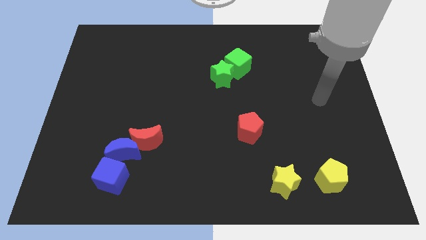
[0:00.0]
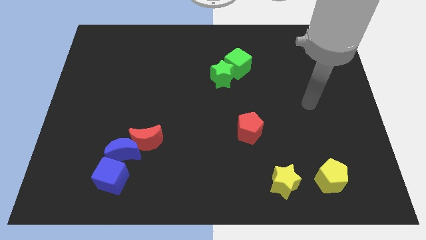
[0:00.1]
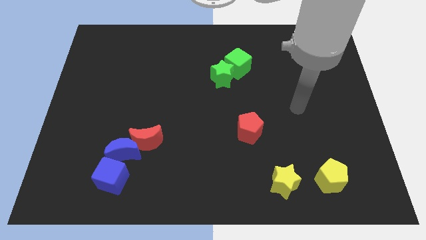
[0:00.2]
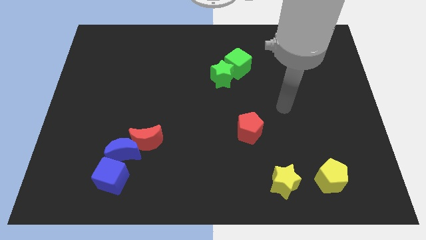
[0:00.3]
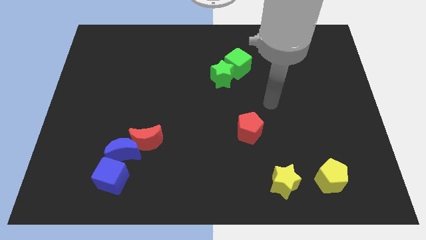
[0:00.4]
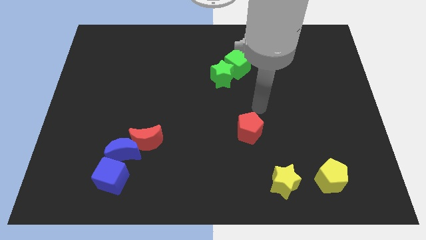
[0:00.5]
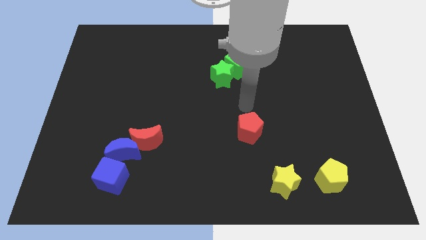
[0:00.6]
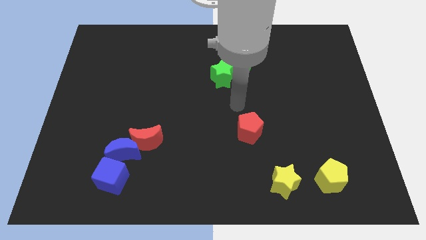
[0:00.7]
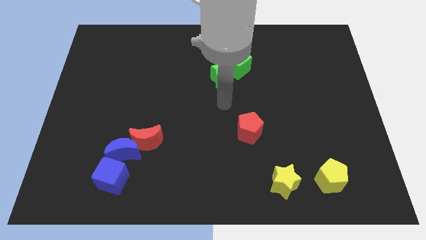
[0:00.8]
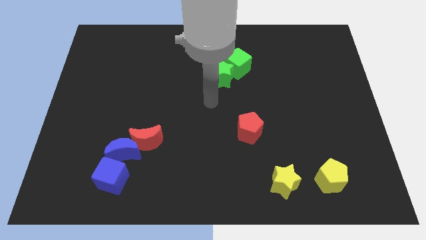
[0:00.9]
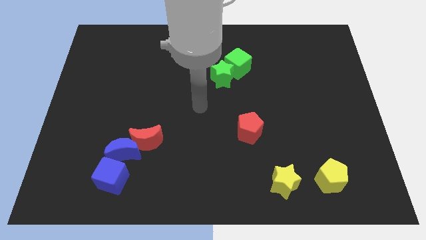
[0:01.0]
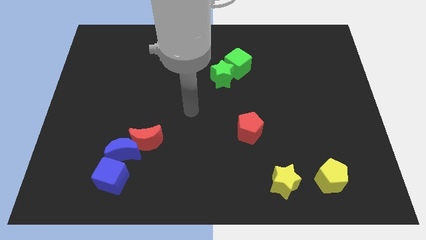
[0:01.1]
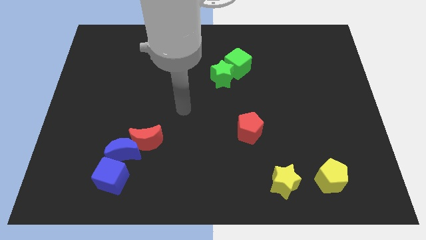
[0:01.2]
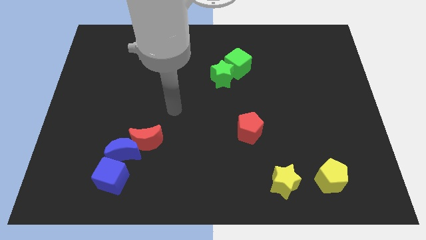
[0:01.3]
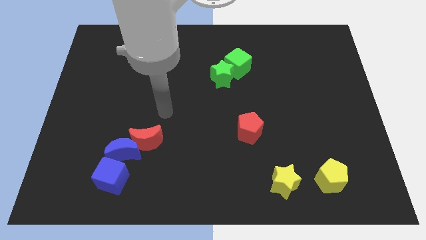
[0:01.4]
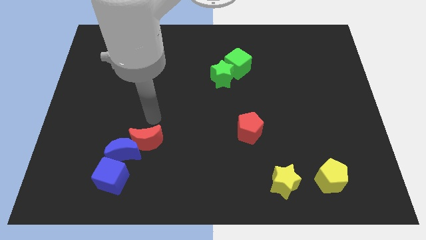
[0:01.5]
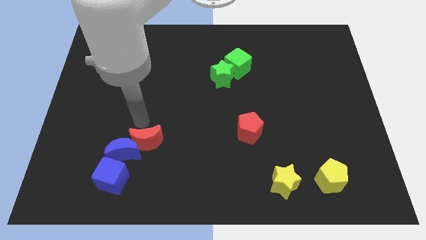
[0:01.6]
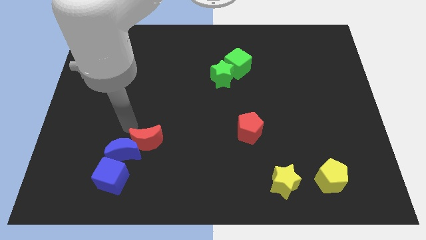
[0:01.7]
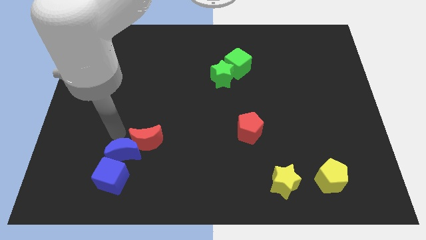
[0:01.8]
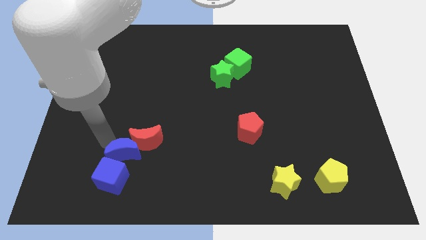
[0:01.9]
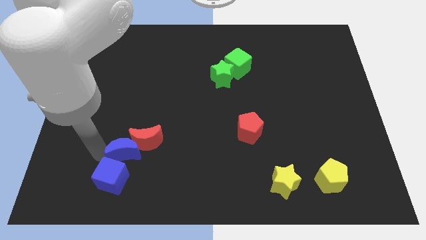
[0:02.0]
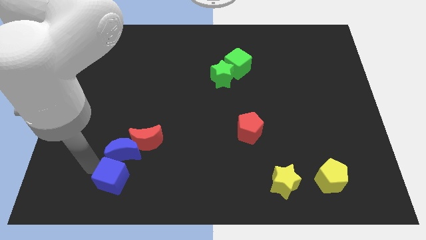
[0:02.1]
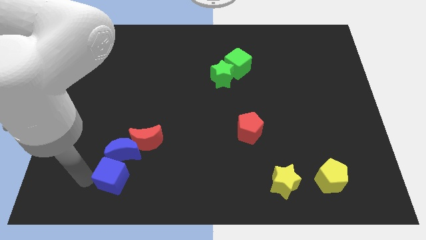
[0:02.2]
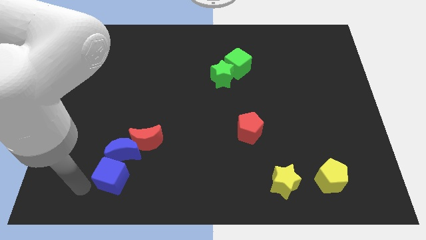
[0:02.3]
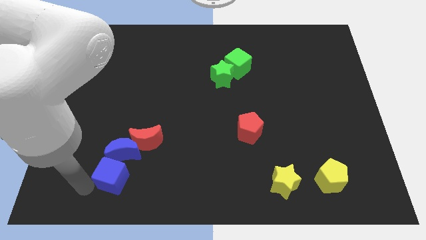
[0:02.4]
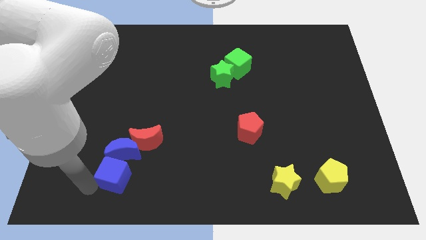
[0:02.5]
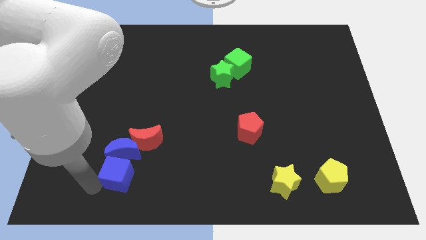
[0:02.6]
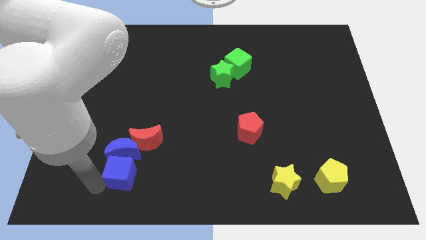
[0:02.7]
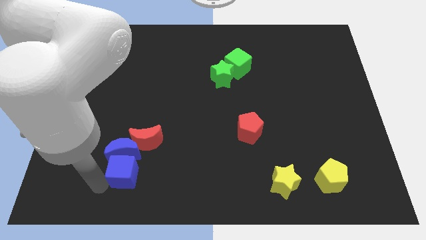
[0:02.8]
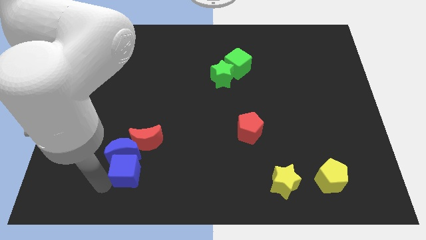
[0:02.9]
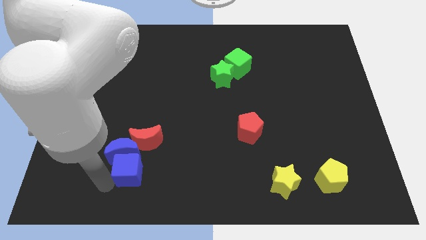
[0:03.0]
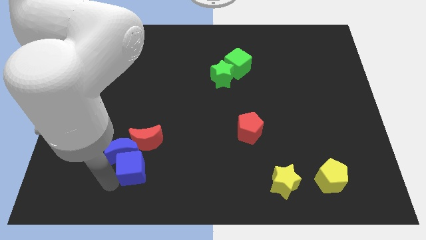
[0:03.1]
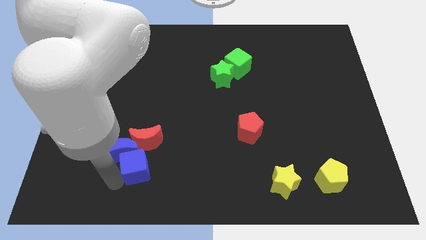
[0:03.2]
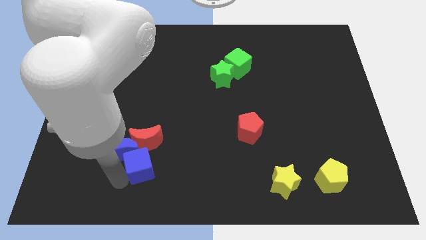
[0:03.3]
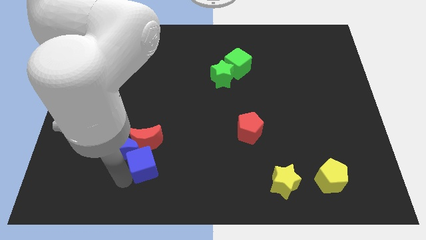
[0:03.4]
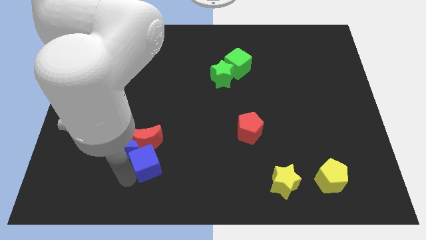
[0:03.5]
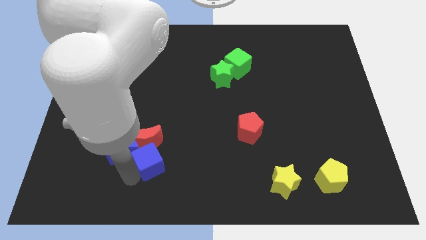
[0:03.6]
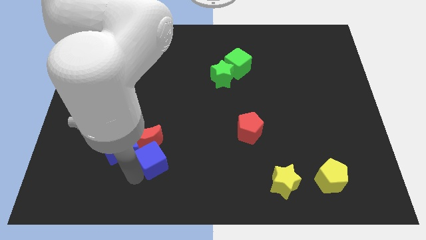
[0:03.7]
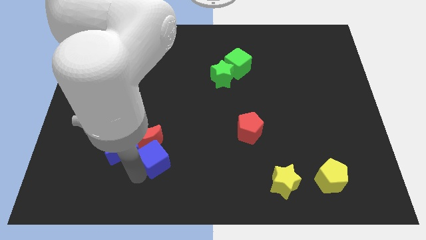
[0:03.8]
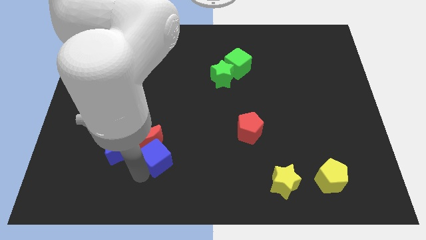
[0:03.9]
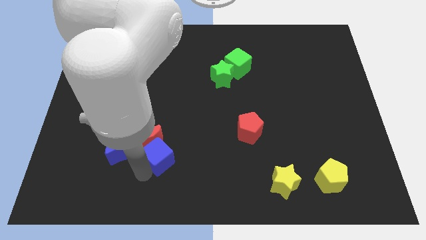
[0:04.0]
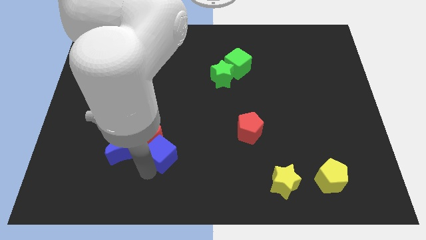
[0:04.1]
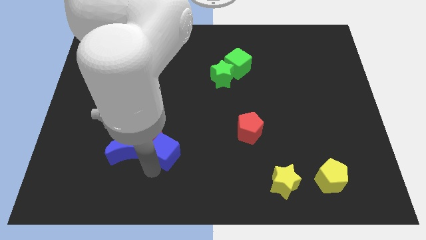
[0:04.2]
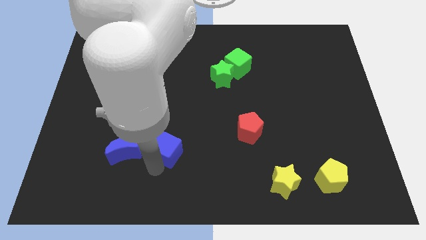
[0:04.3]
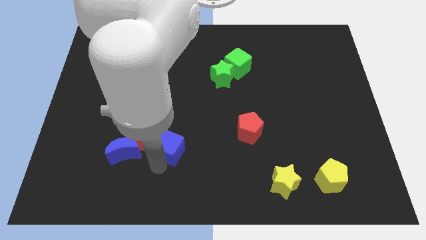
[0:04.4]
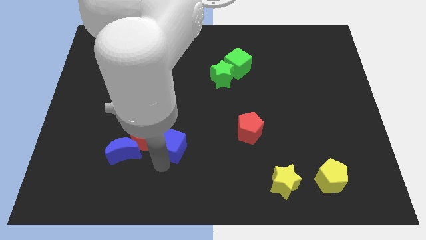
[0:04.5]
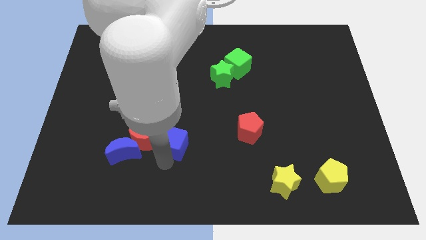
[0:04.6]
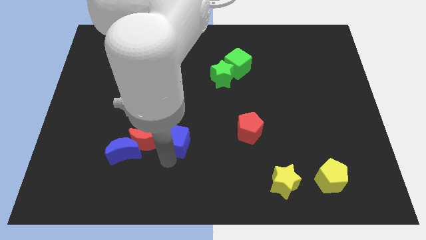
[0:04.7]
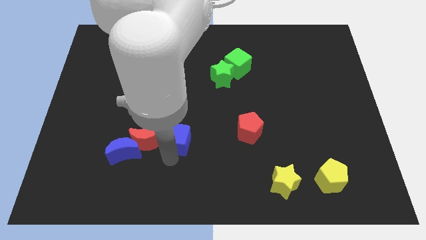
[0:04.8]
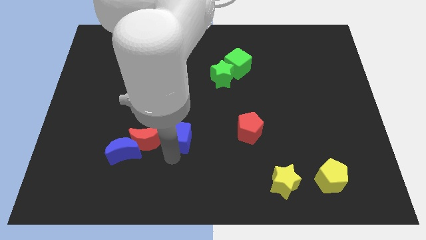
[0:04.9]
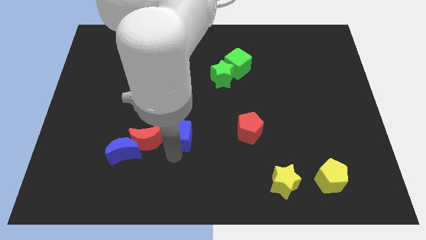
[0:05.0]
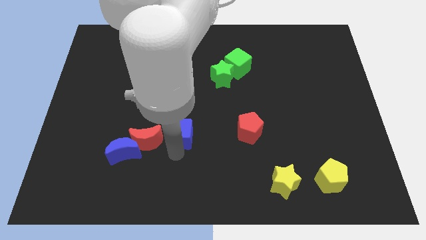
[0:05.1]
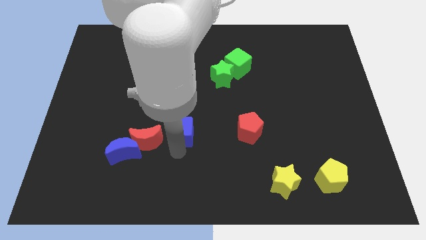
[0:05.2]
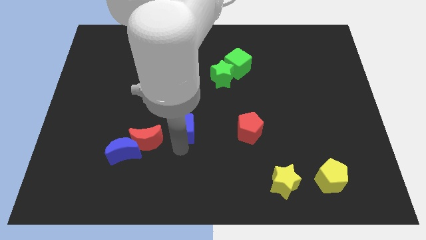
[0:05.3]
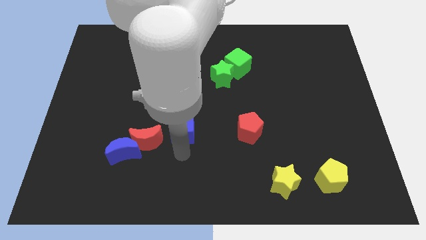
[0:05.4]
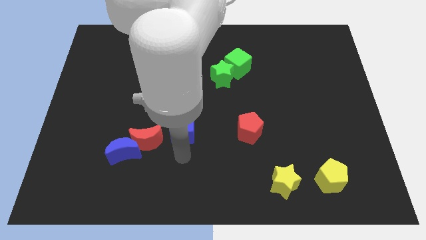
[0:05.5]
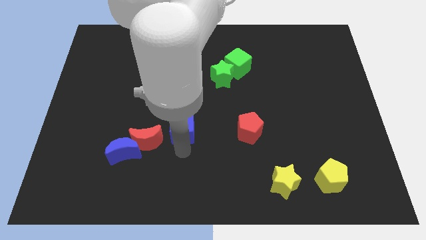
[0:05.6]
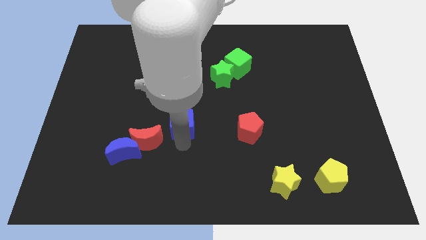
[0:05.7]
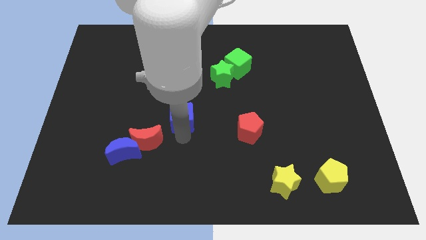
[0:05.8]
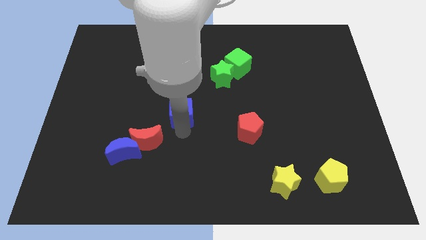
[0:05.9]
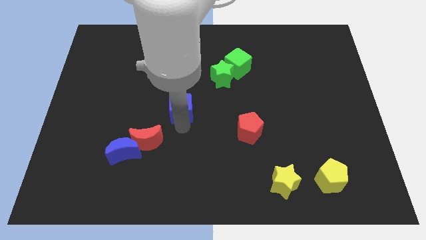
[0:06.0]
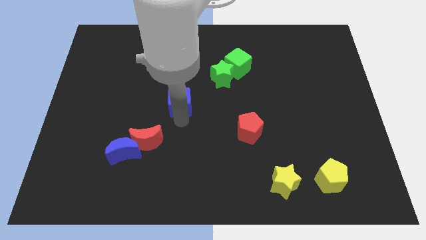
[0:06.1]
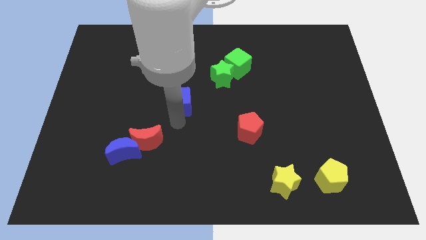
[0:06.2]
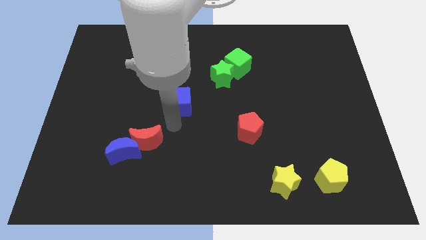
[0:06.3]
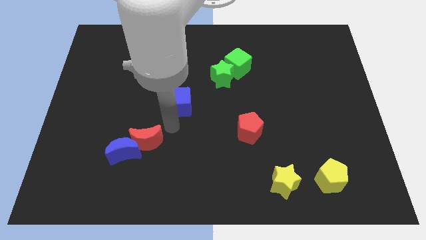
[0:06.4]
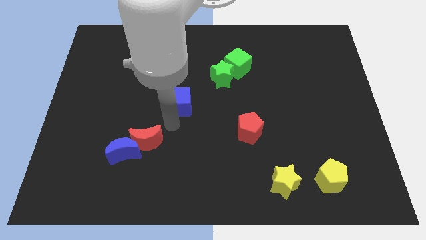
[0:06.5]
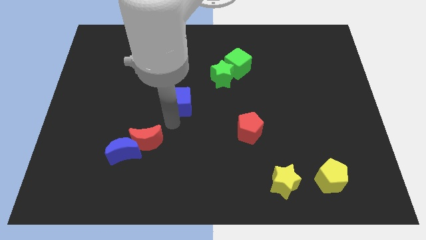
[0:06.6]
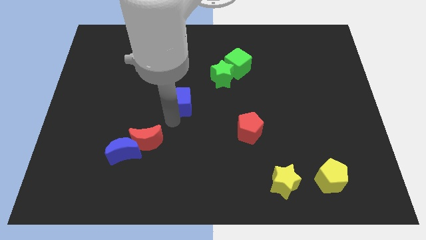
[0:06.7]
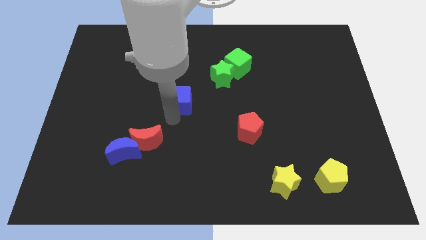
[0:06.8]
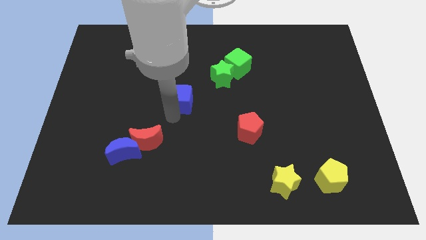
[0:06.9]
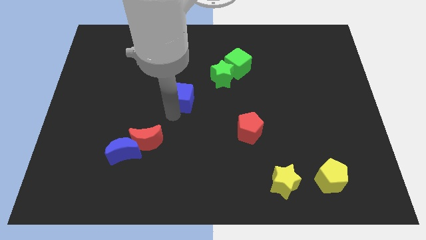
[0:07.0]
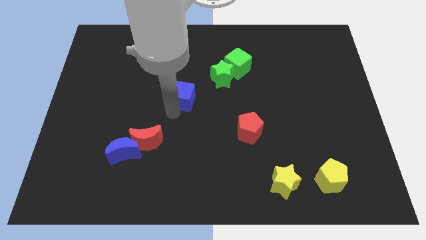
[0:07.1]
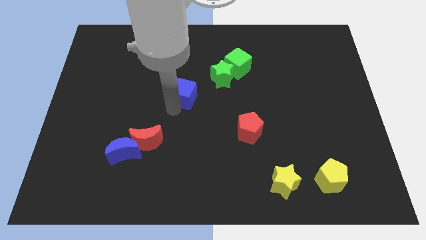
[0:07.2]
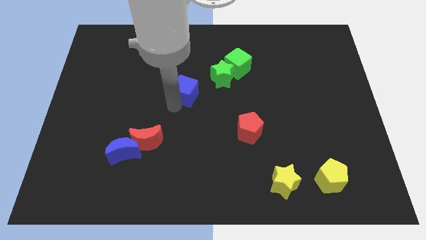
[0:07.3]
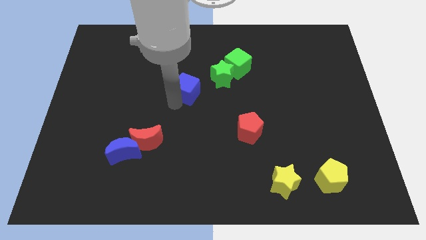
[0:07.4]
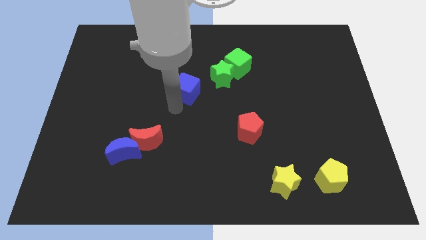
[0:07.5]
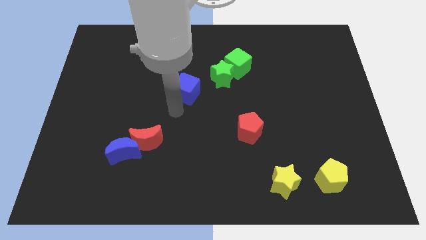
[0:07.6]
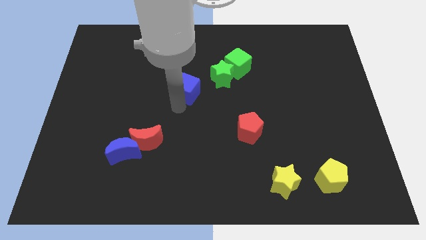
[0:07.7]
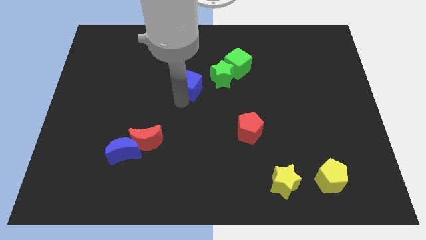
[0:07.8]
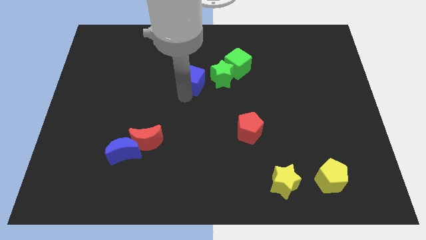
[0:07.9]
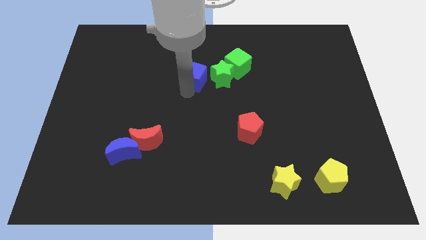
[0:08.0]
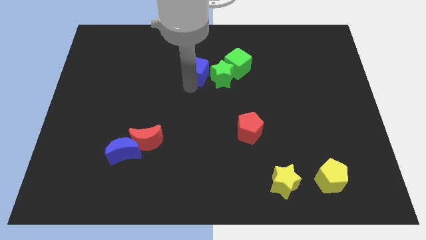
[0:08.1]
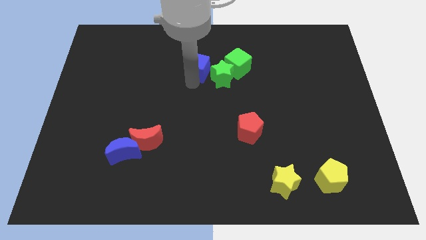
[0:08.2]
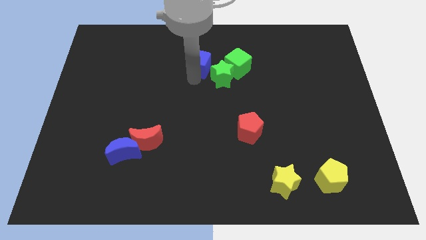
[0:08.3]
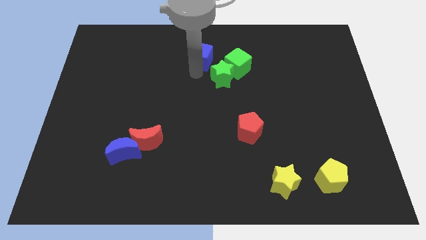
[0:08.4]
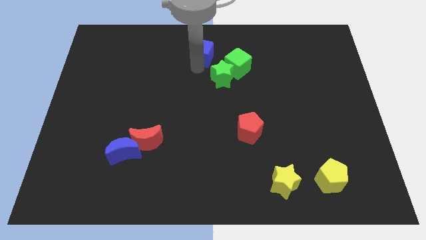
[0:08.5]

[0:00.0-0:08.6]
push the blue cube to the top side
